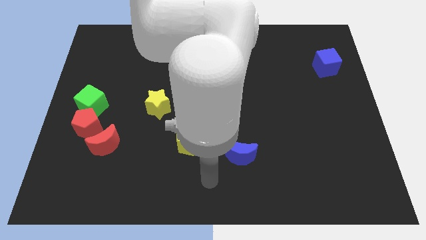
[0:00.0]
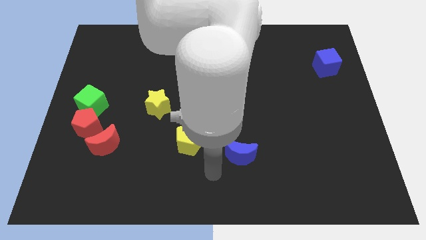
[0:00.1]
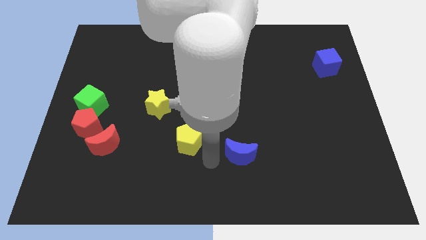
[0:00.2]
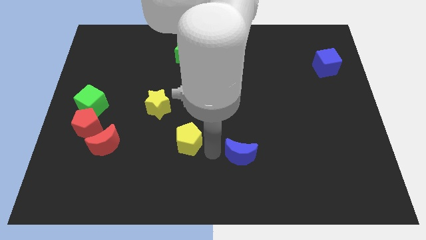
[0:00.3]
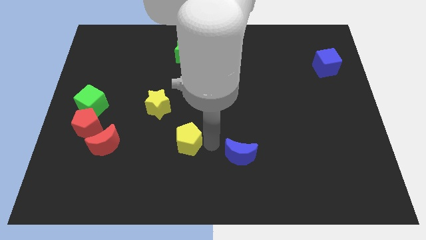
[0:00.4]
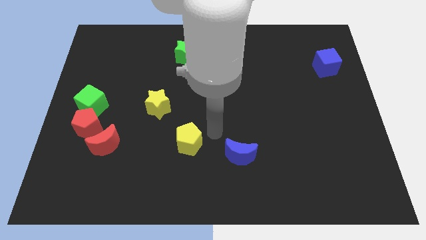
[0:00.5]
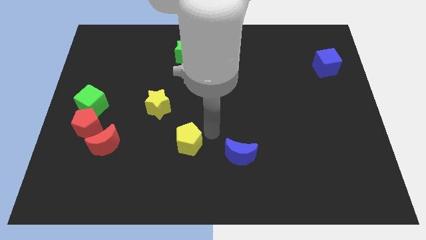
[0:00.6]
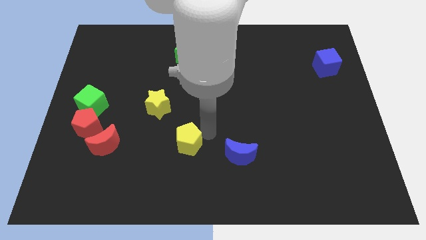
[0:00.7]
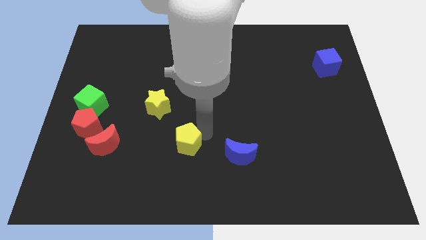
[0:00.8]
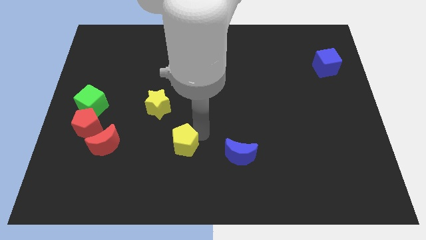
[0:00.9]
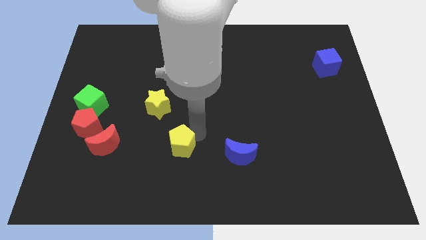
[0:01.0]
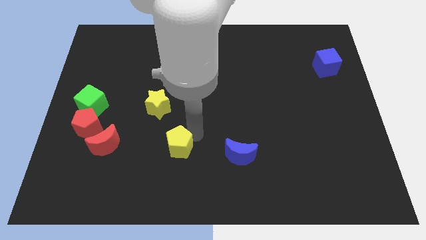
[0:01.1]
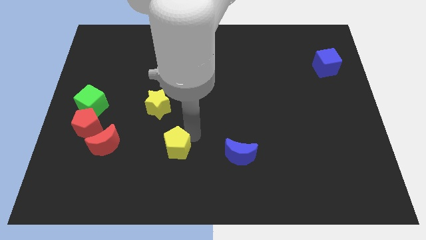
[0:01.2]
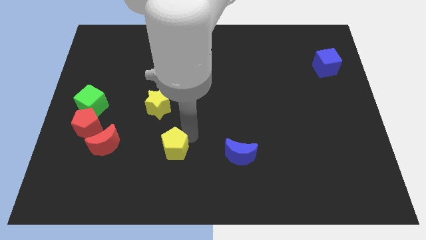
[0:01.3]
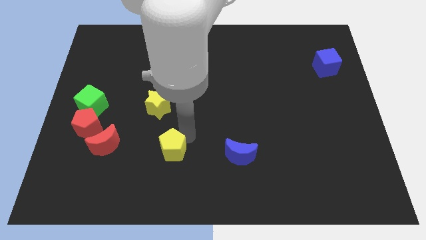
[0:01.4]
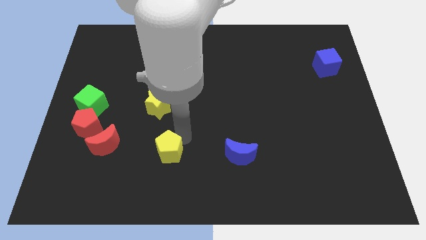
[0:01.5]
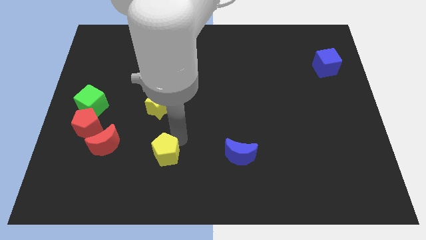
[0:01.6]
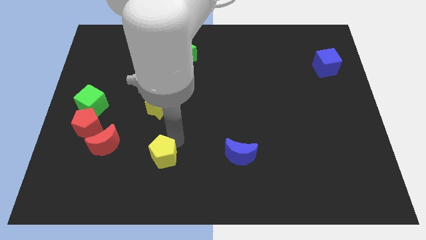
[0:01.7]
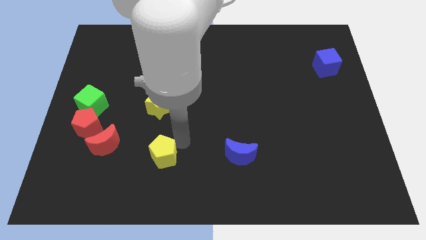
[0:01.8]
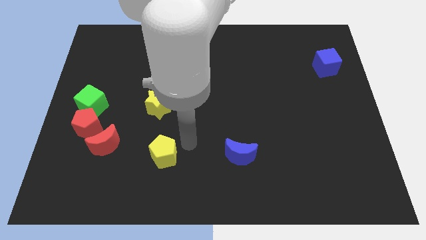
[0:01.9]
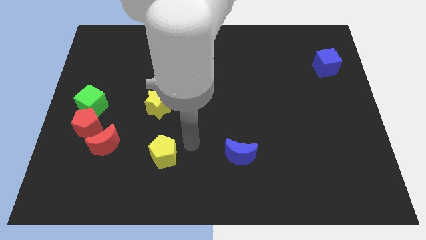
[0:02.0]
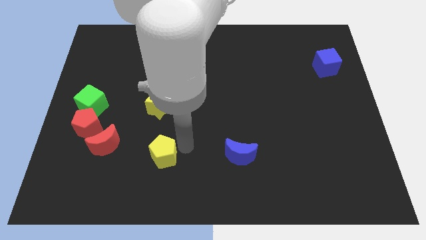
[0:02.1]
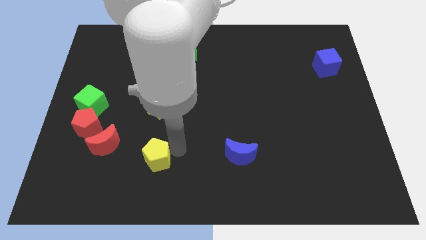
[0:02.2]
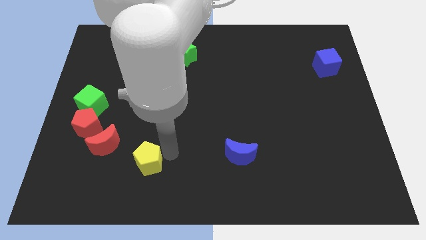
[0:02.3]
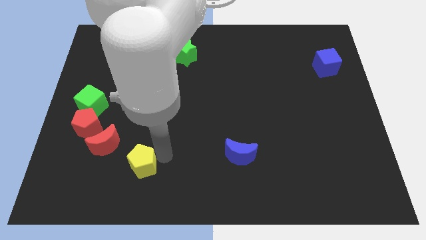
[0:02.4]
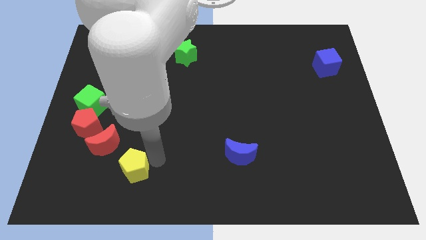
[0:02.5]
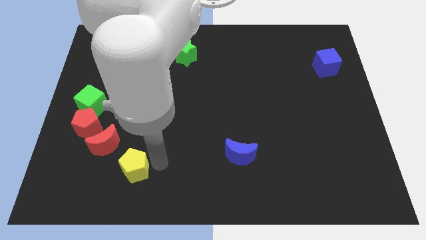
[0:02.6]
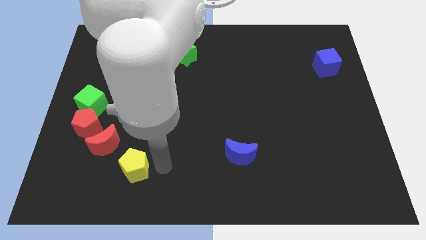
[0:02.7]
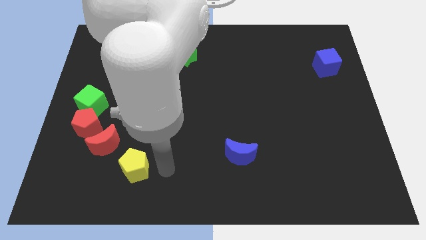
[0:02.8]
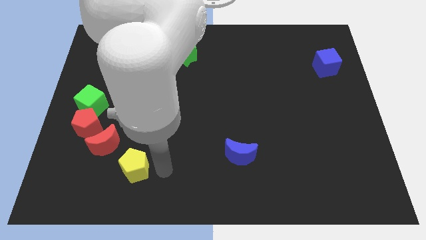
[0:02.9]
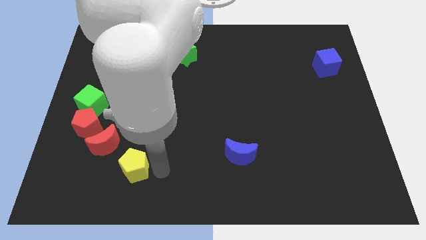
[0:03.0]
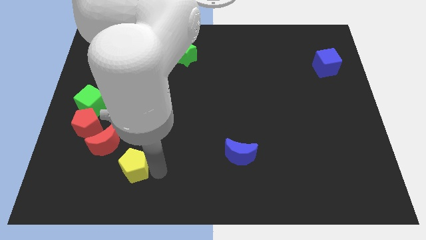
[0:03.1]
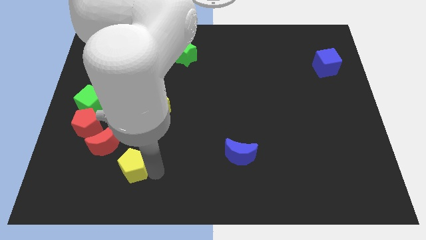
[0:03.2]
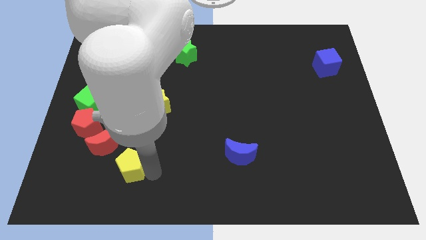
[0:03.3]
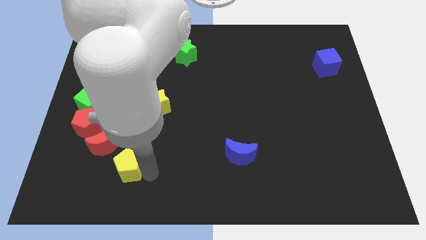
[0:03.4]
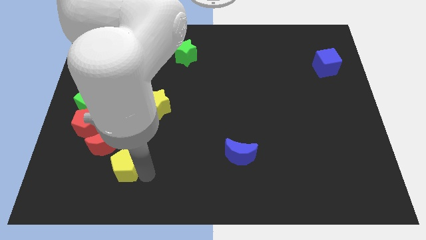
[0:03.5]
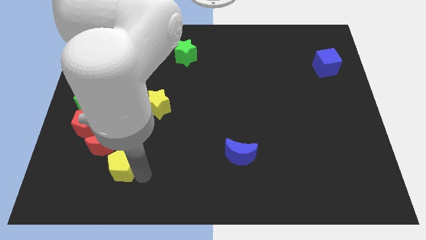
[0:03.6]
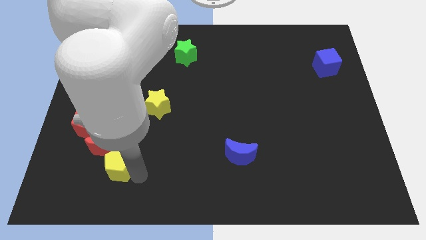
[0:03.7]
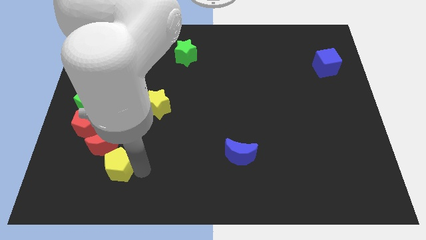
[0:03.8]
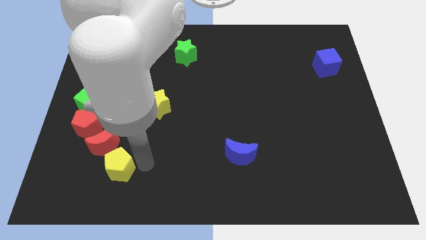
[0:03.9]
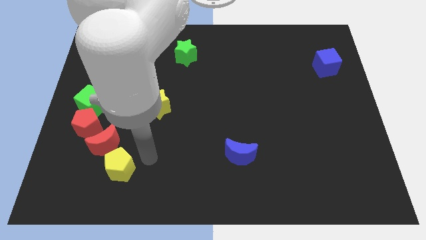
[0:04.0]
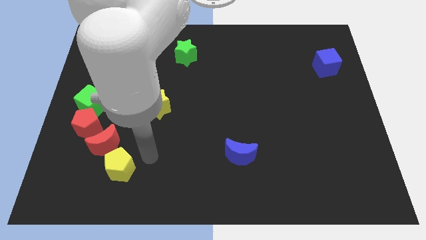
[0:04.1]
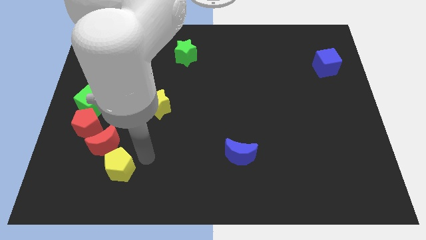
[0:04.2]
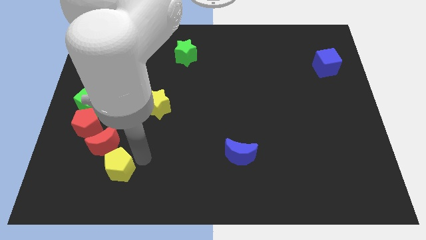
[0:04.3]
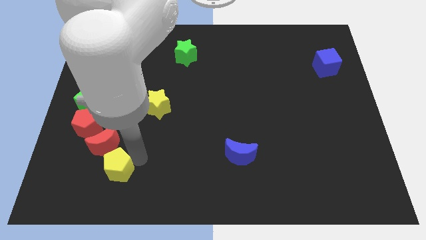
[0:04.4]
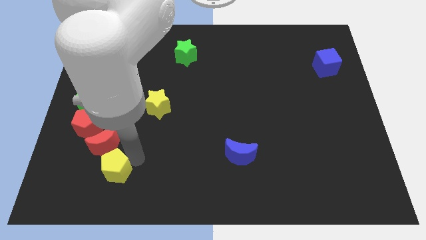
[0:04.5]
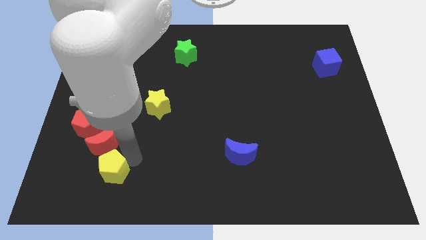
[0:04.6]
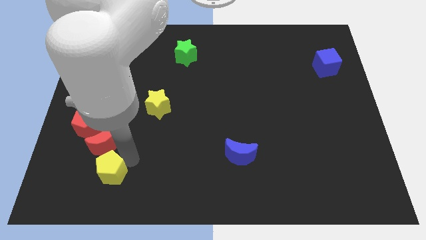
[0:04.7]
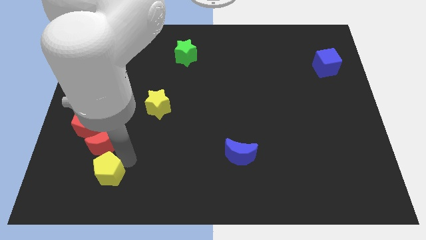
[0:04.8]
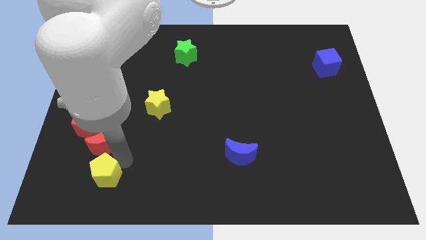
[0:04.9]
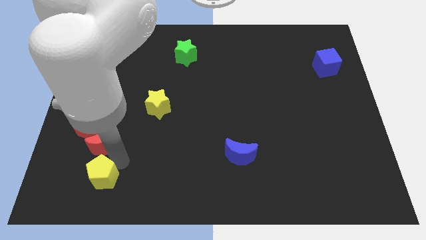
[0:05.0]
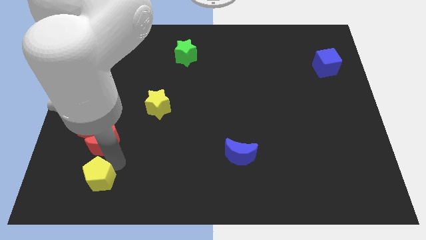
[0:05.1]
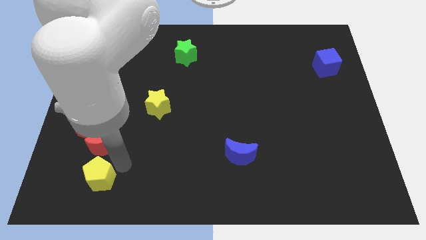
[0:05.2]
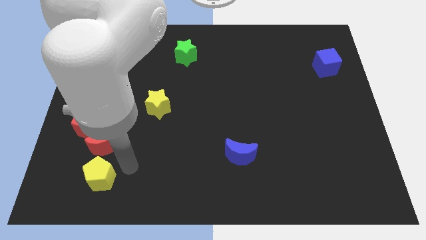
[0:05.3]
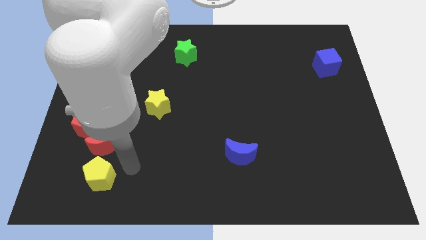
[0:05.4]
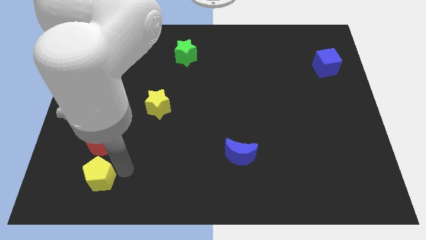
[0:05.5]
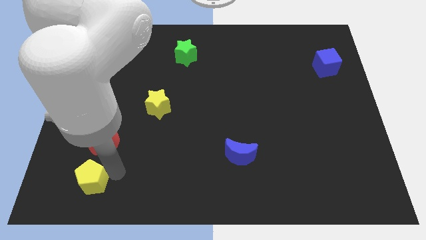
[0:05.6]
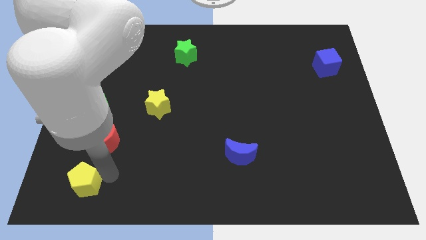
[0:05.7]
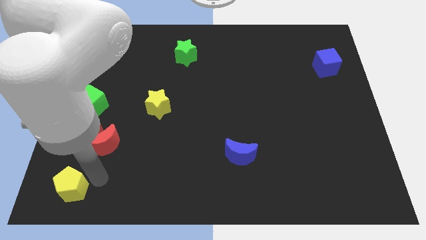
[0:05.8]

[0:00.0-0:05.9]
push the yellow pentagon to the bottom left of the board
